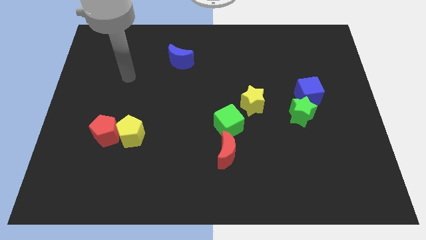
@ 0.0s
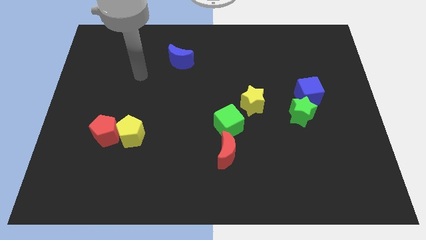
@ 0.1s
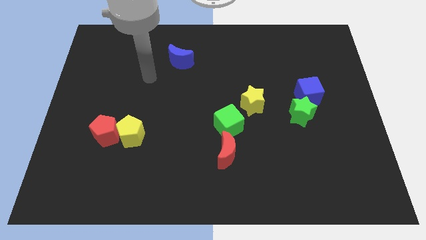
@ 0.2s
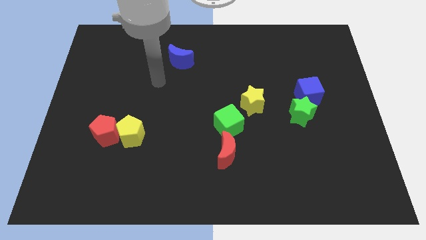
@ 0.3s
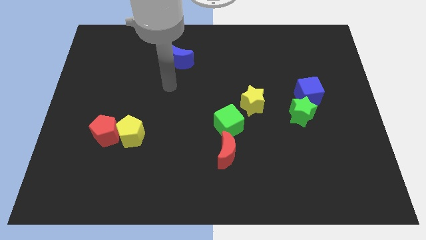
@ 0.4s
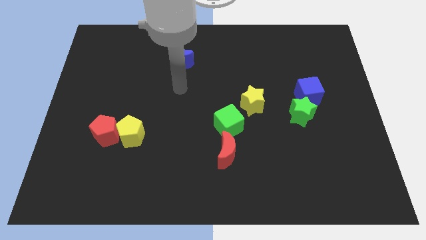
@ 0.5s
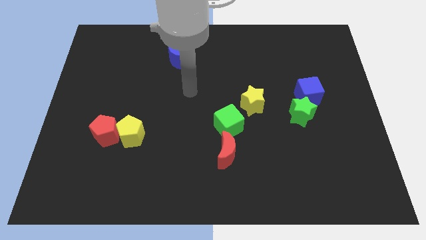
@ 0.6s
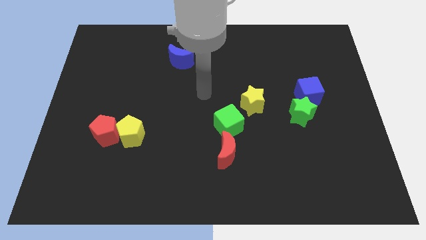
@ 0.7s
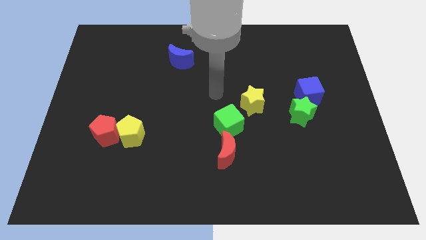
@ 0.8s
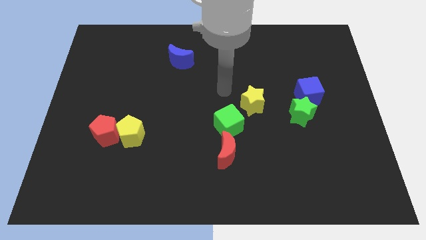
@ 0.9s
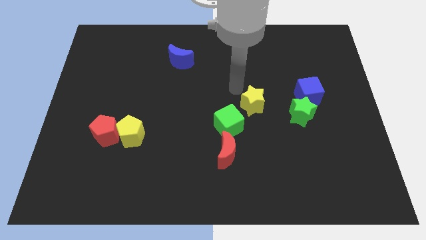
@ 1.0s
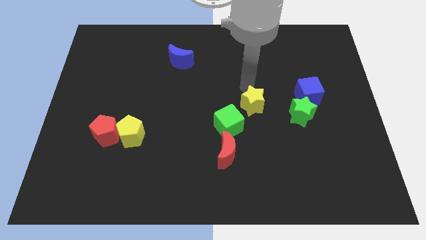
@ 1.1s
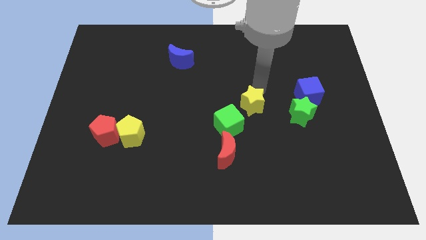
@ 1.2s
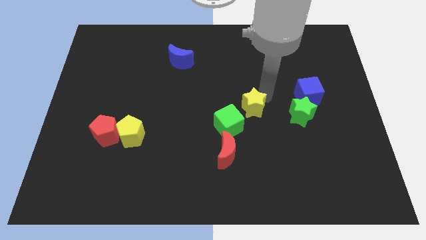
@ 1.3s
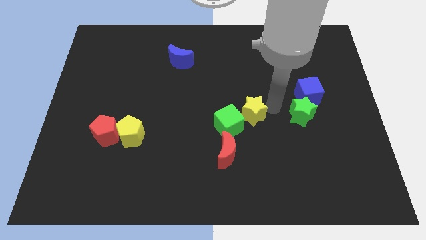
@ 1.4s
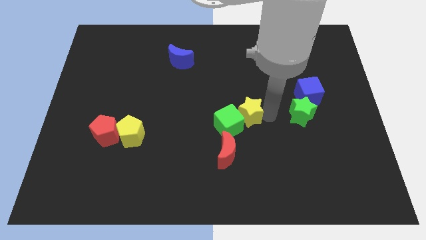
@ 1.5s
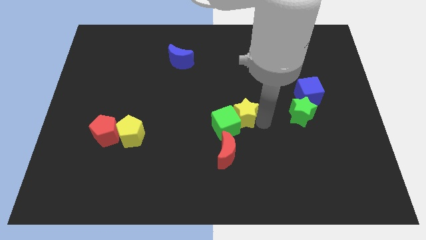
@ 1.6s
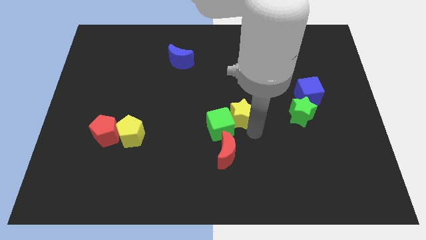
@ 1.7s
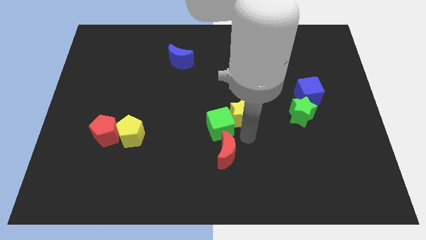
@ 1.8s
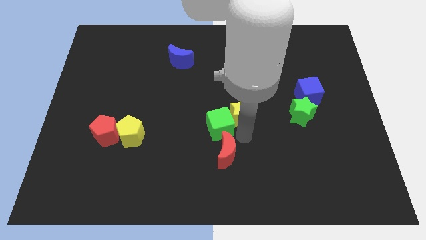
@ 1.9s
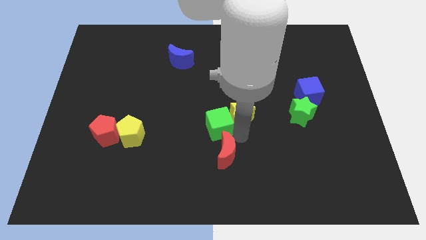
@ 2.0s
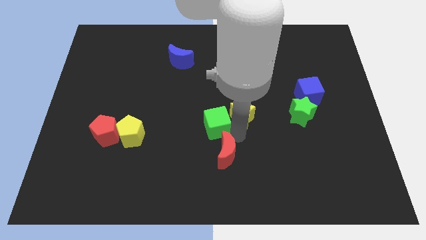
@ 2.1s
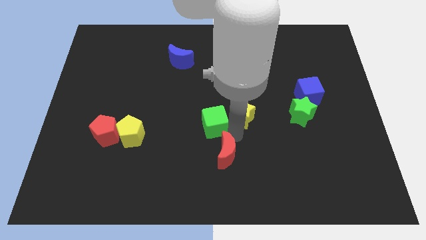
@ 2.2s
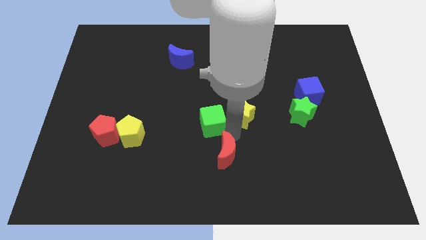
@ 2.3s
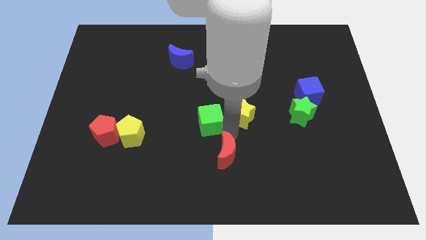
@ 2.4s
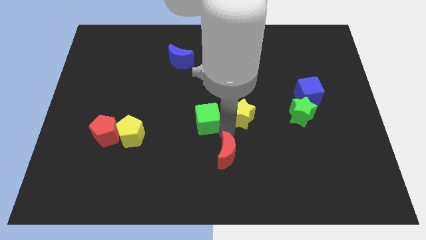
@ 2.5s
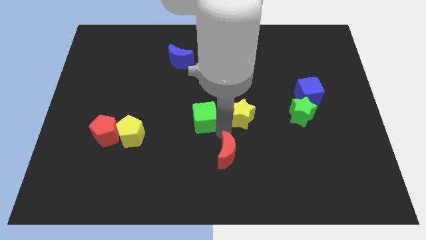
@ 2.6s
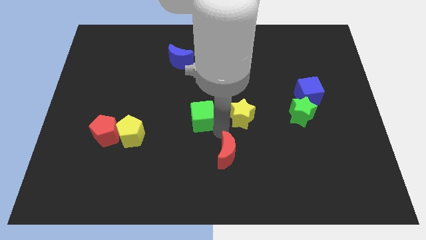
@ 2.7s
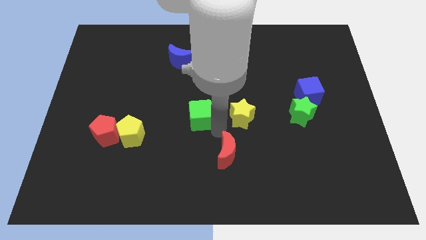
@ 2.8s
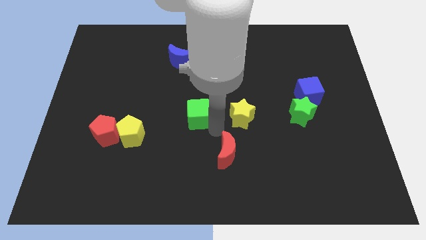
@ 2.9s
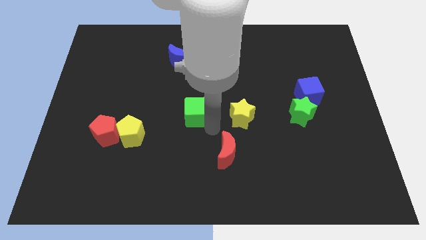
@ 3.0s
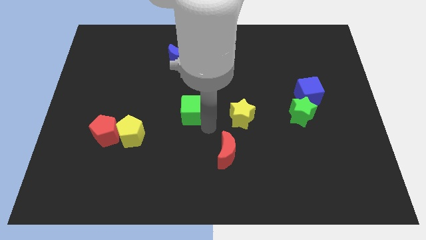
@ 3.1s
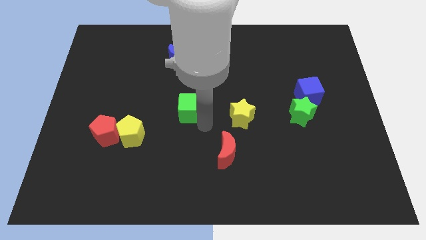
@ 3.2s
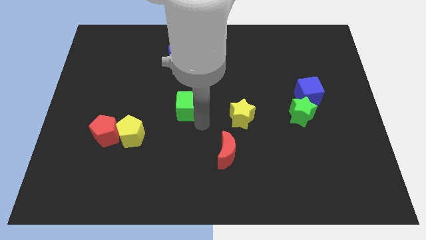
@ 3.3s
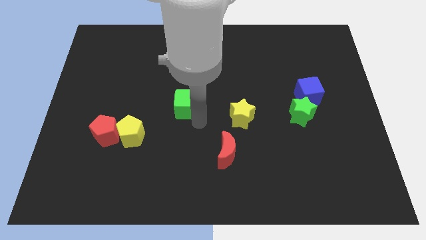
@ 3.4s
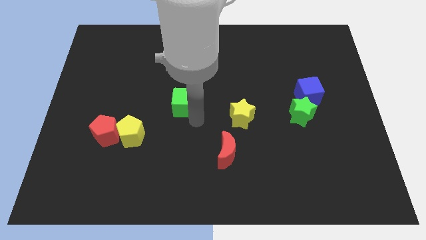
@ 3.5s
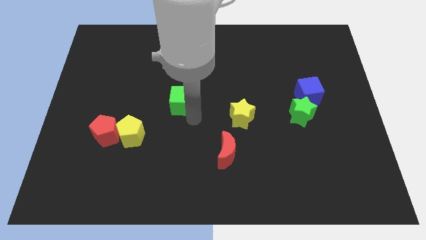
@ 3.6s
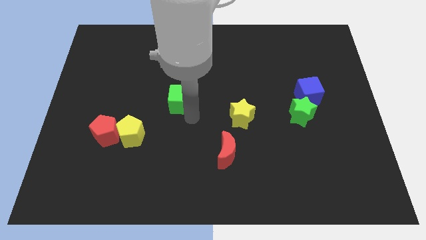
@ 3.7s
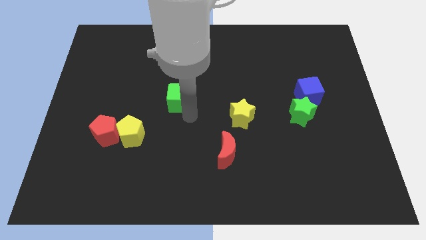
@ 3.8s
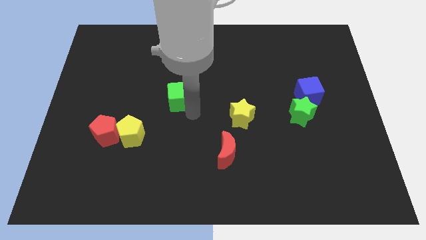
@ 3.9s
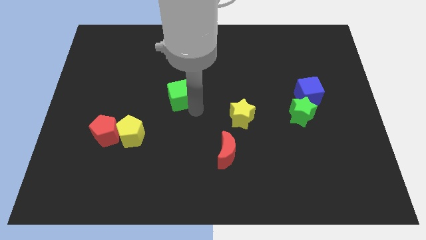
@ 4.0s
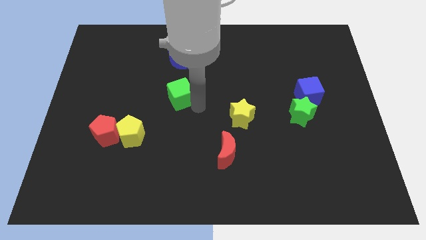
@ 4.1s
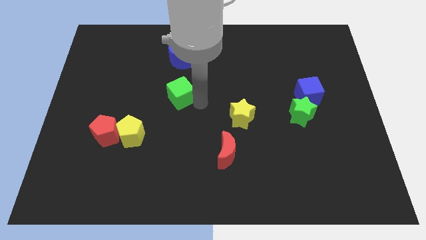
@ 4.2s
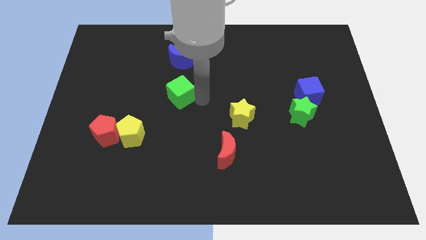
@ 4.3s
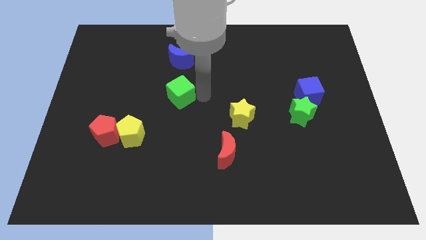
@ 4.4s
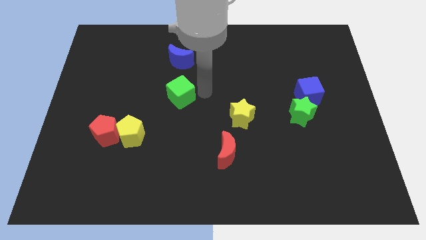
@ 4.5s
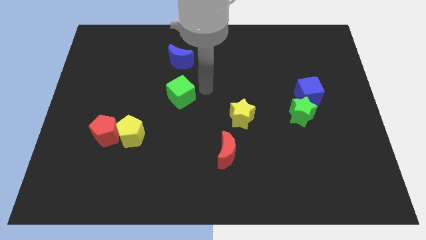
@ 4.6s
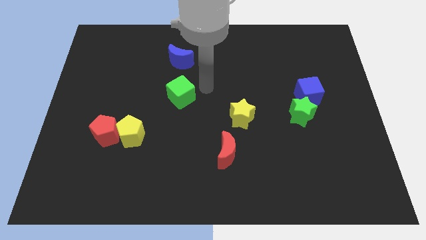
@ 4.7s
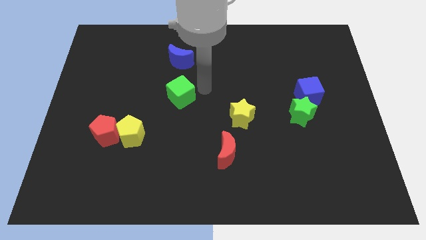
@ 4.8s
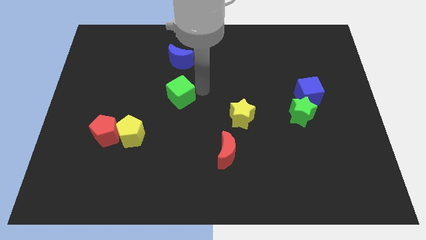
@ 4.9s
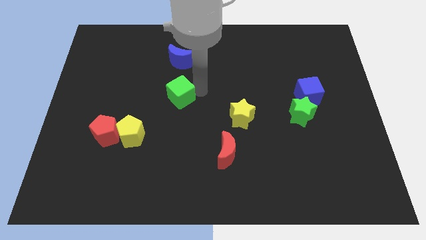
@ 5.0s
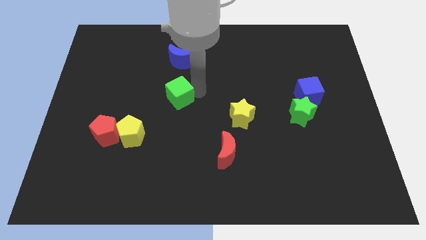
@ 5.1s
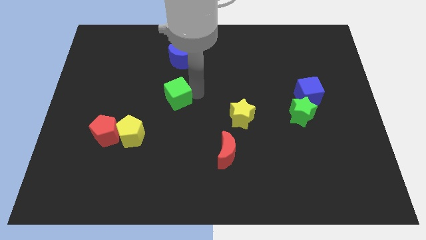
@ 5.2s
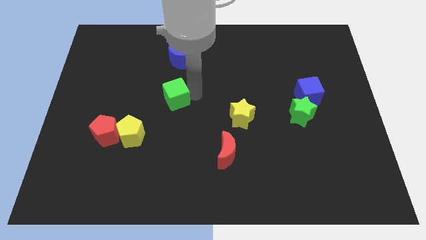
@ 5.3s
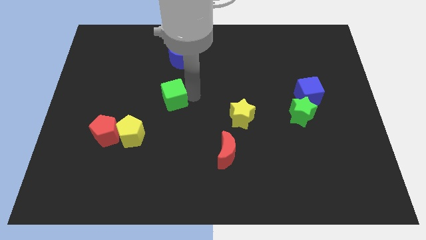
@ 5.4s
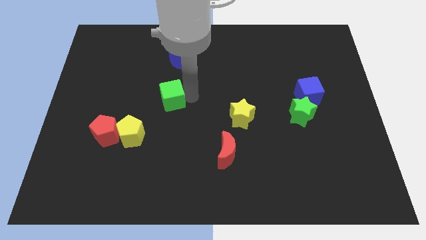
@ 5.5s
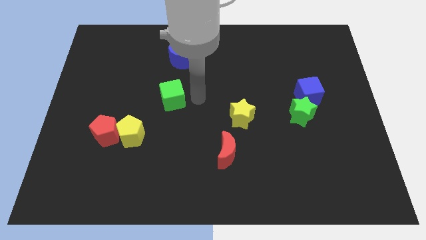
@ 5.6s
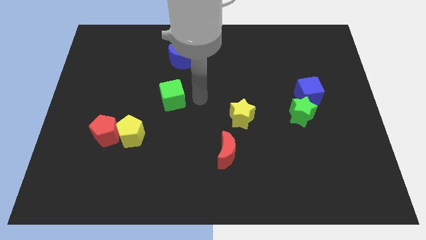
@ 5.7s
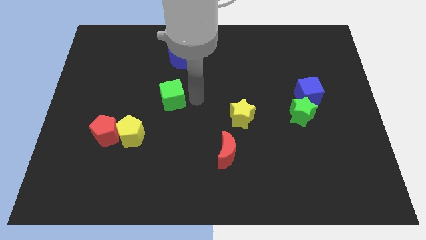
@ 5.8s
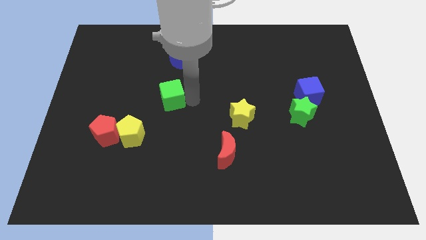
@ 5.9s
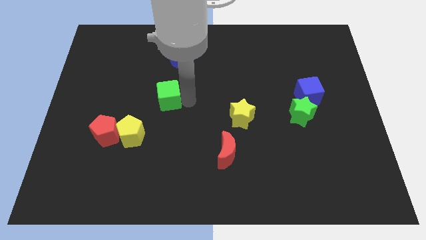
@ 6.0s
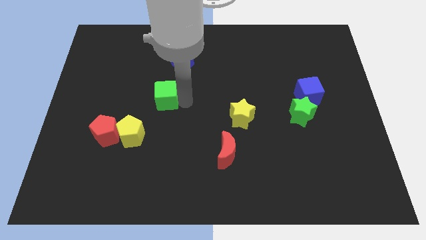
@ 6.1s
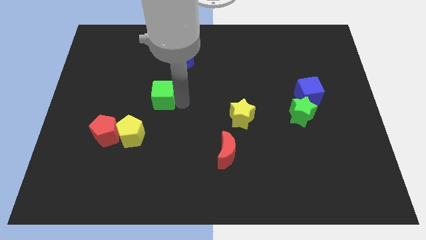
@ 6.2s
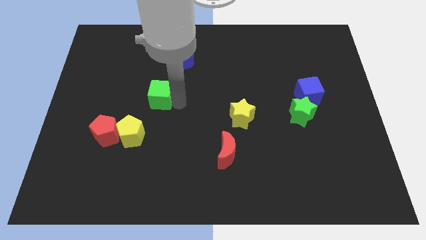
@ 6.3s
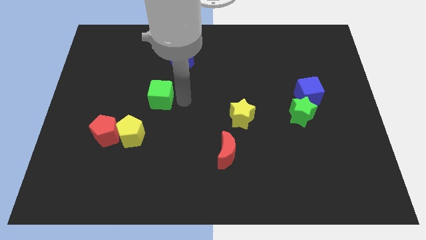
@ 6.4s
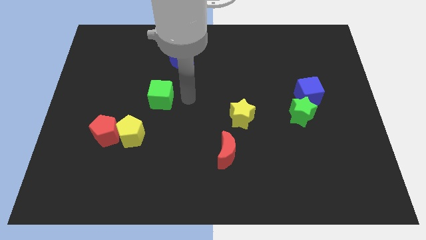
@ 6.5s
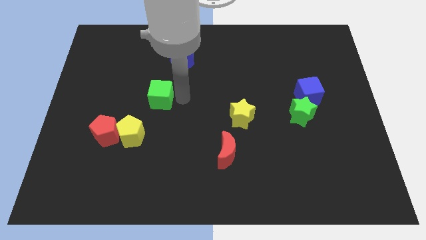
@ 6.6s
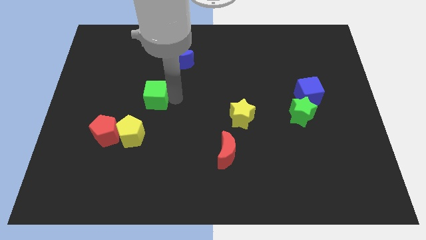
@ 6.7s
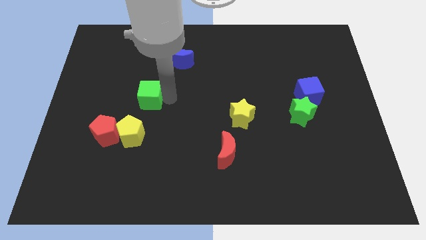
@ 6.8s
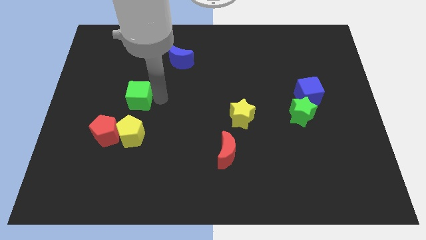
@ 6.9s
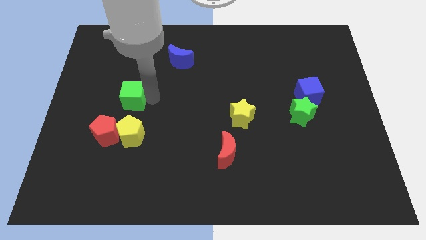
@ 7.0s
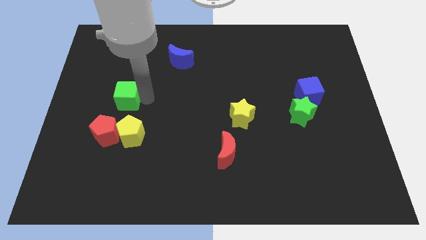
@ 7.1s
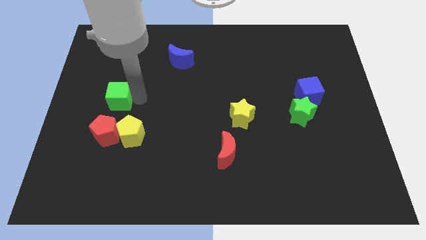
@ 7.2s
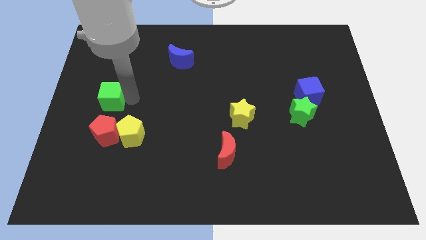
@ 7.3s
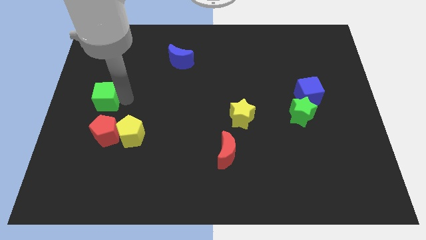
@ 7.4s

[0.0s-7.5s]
put the green cube to the center left

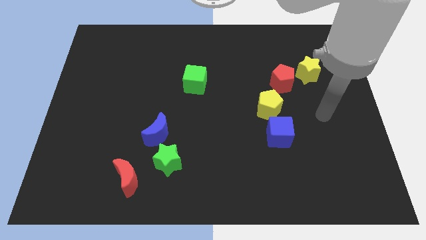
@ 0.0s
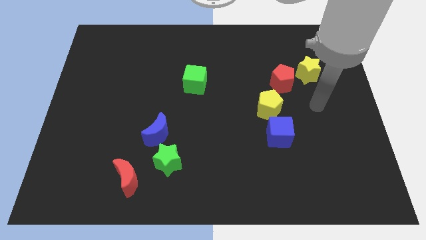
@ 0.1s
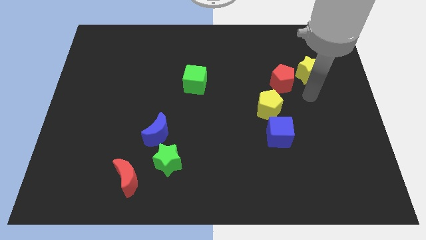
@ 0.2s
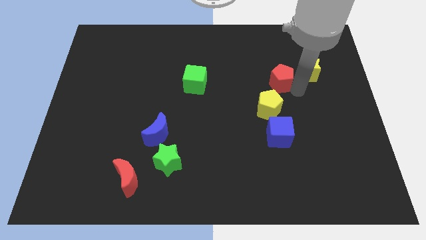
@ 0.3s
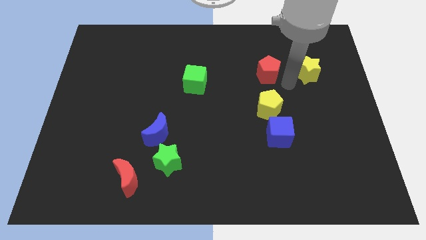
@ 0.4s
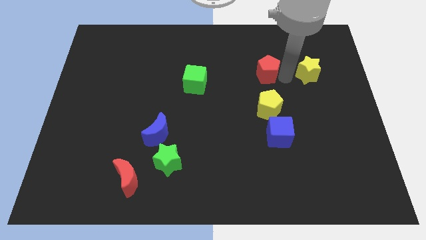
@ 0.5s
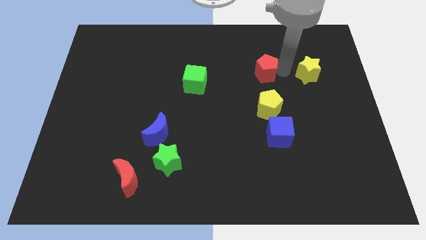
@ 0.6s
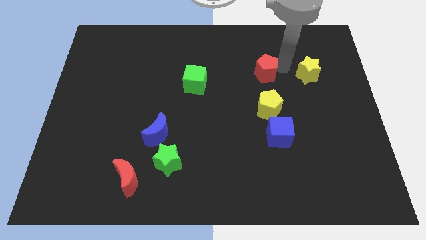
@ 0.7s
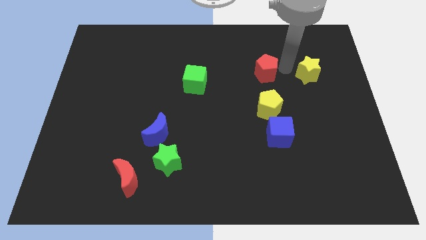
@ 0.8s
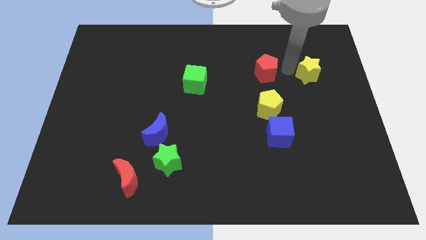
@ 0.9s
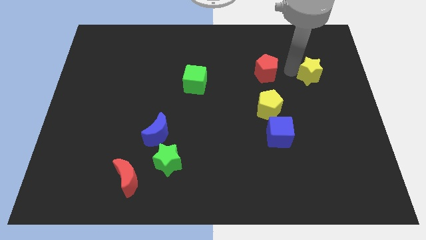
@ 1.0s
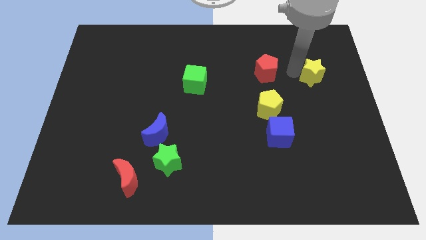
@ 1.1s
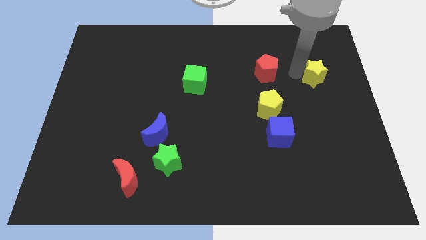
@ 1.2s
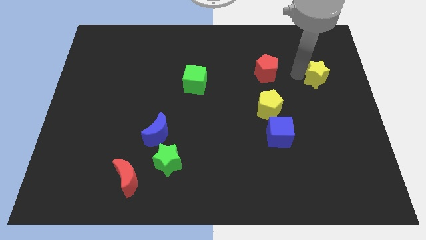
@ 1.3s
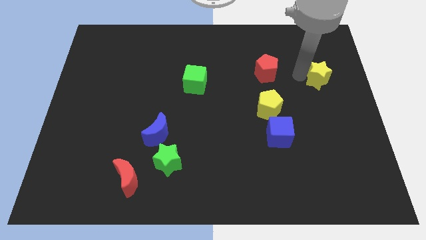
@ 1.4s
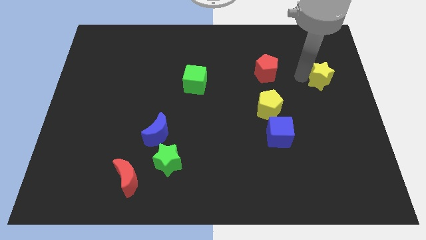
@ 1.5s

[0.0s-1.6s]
put the yellow star to the right side
